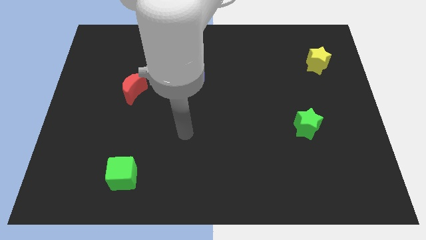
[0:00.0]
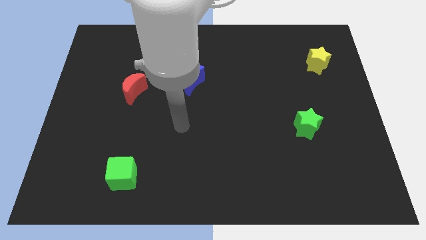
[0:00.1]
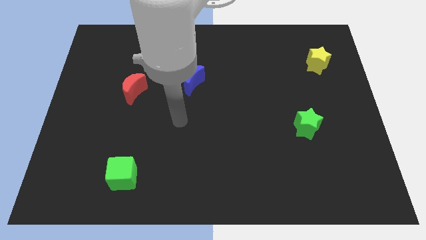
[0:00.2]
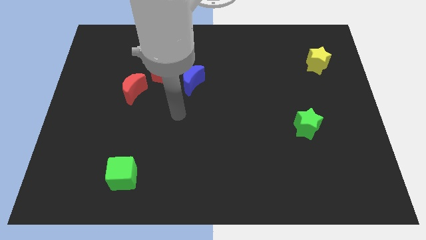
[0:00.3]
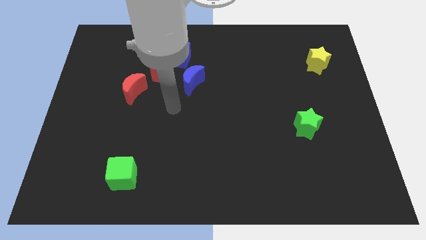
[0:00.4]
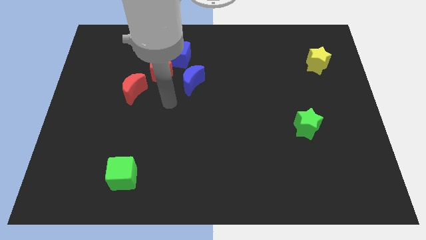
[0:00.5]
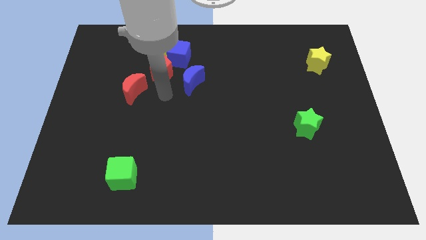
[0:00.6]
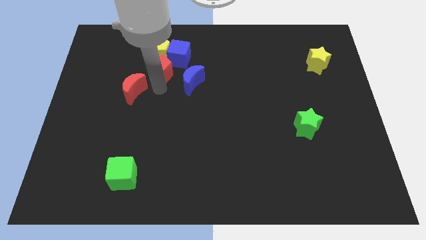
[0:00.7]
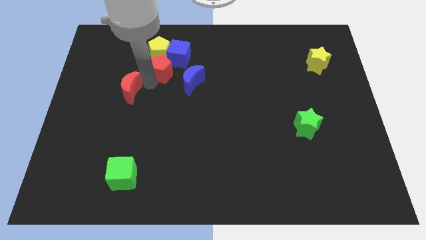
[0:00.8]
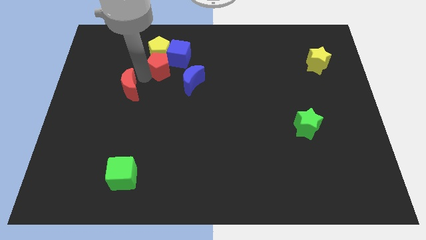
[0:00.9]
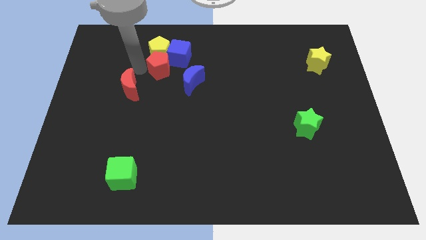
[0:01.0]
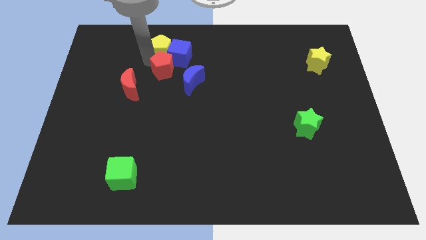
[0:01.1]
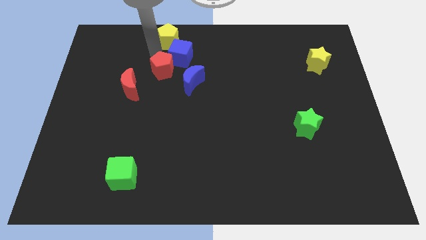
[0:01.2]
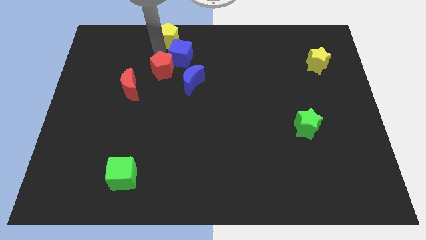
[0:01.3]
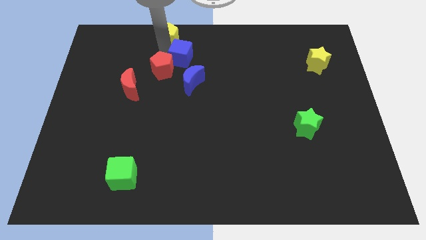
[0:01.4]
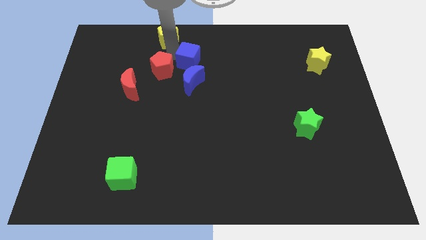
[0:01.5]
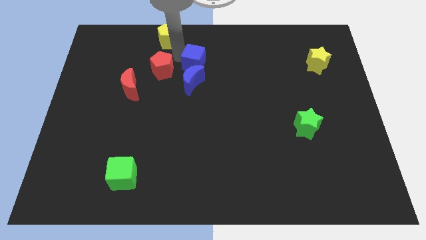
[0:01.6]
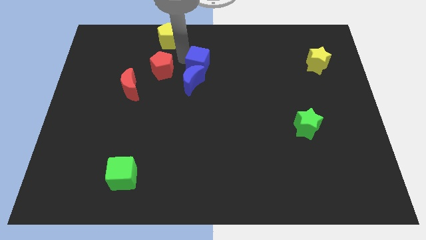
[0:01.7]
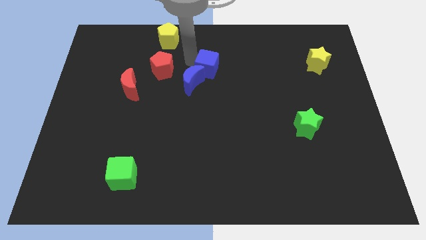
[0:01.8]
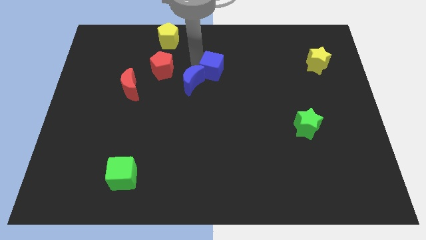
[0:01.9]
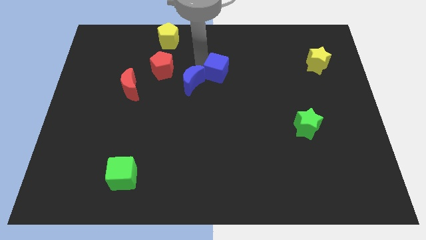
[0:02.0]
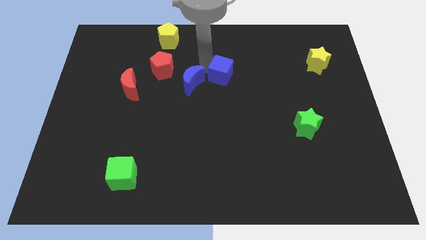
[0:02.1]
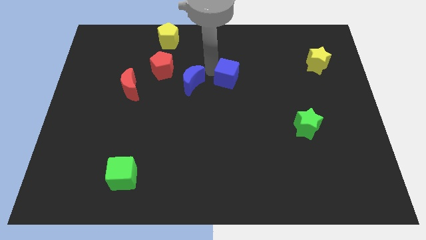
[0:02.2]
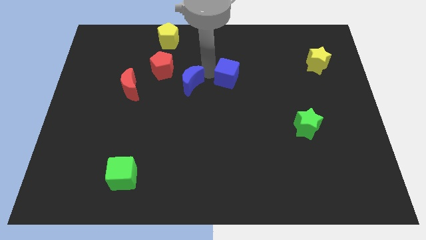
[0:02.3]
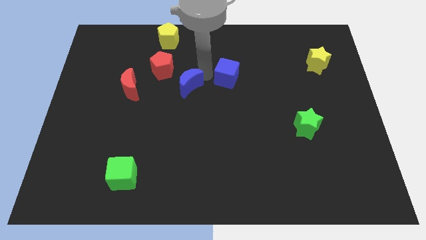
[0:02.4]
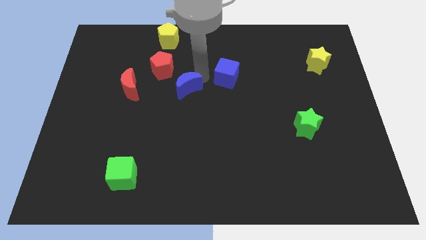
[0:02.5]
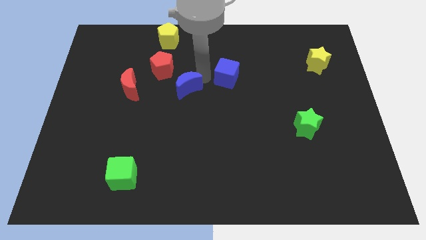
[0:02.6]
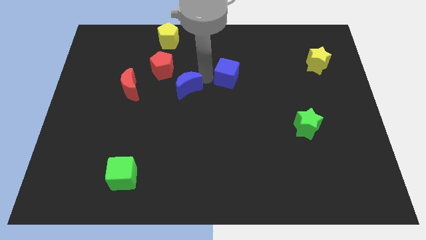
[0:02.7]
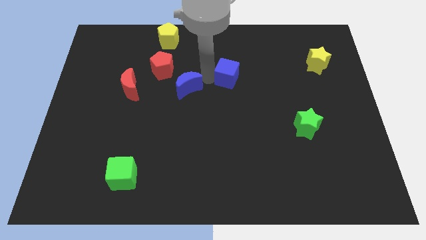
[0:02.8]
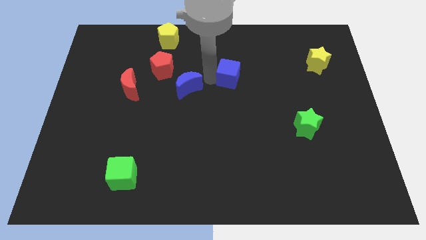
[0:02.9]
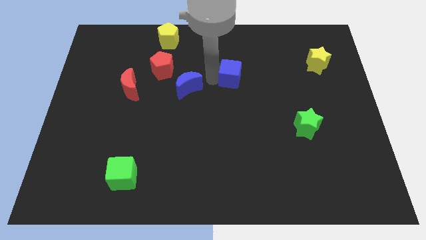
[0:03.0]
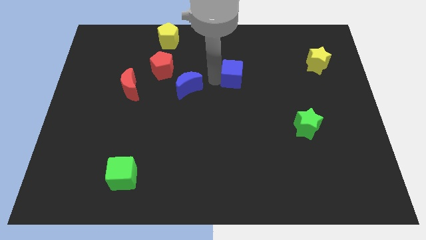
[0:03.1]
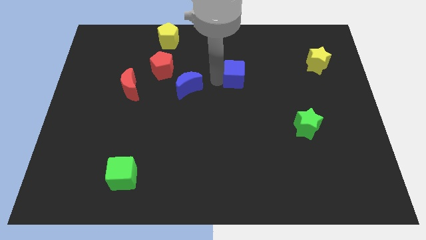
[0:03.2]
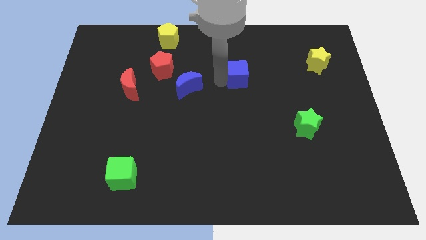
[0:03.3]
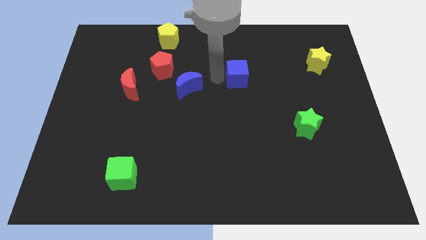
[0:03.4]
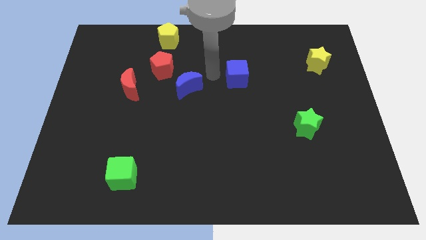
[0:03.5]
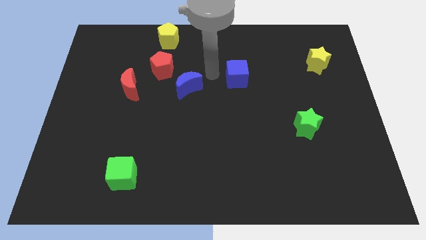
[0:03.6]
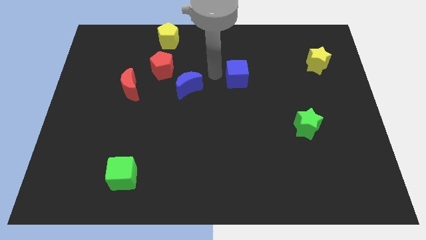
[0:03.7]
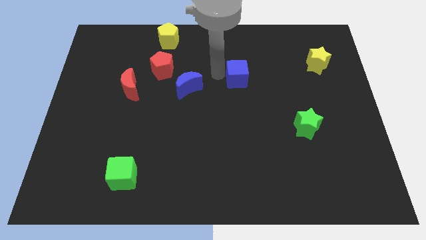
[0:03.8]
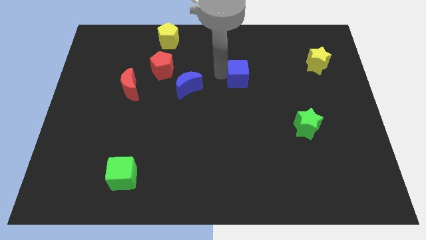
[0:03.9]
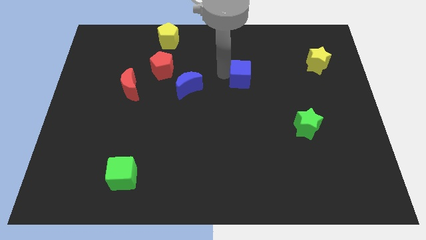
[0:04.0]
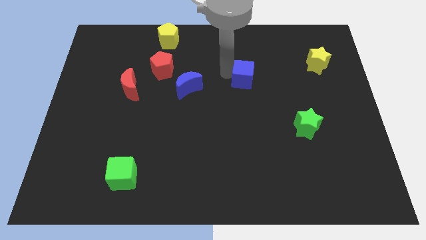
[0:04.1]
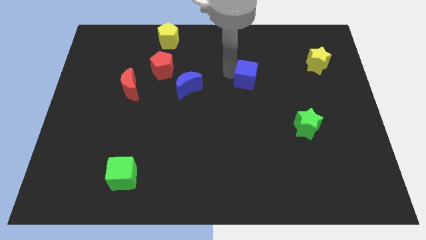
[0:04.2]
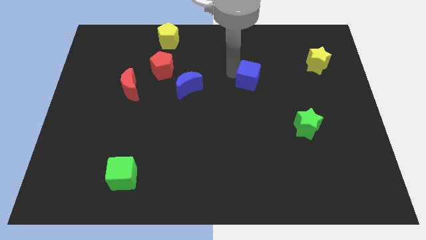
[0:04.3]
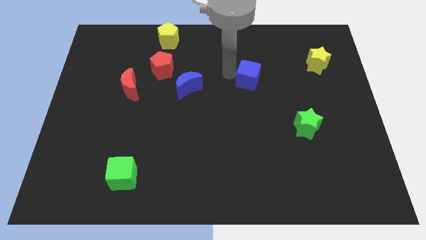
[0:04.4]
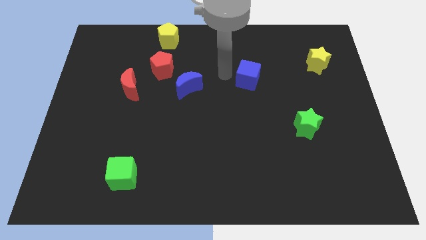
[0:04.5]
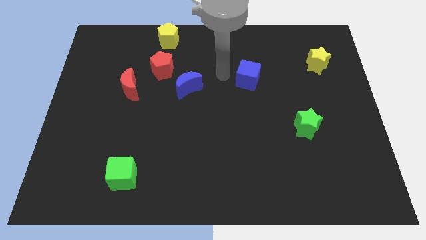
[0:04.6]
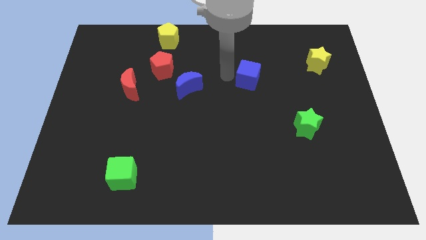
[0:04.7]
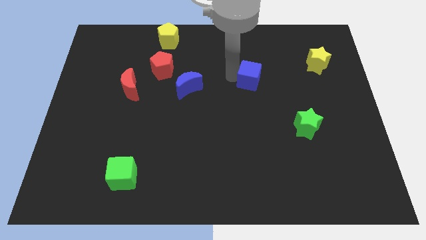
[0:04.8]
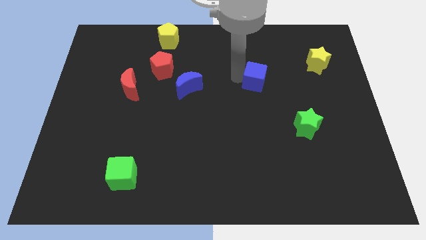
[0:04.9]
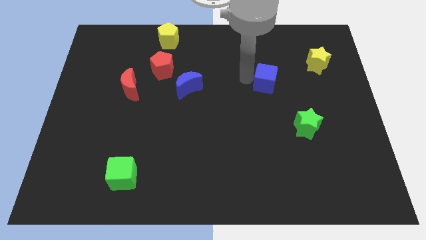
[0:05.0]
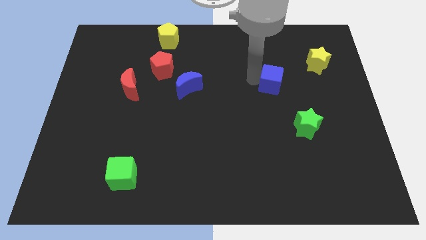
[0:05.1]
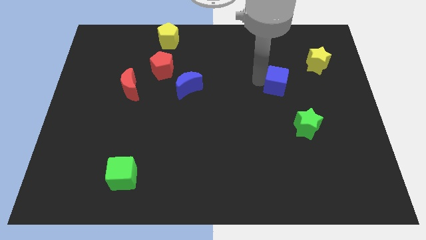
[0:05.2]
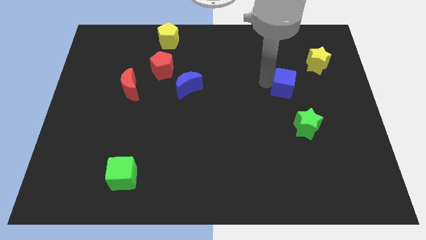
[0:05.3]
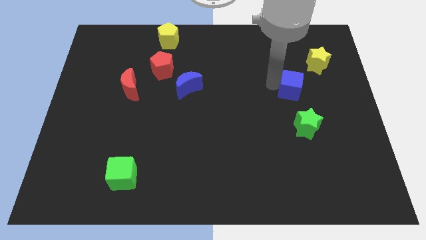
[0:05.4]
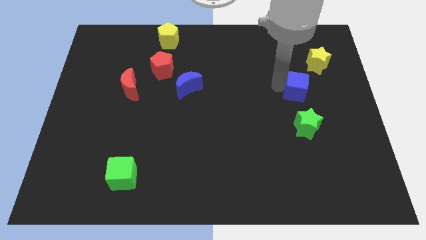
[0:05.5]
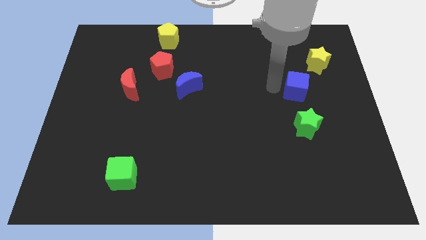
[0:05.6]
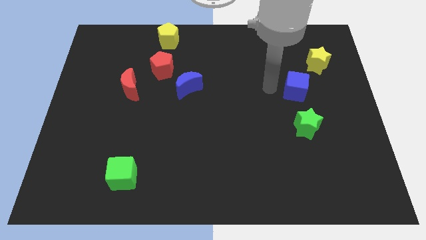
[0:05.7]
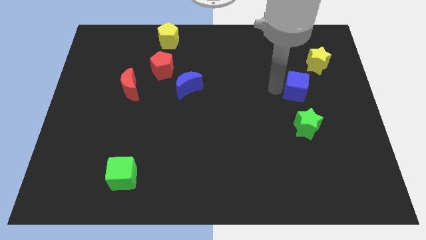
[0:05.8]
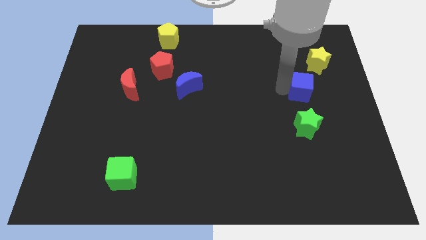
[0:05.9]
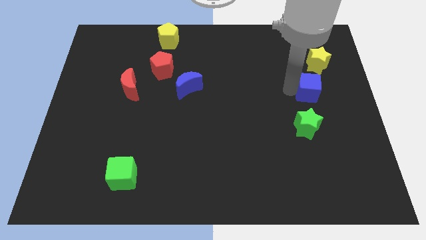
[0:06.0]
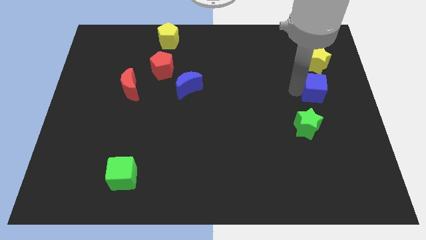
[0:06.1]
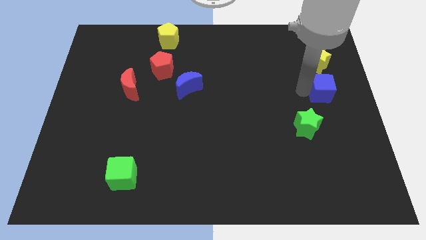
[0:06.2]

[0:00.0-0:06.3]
move the blue cube to the right side
